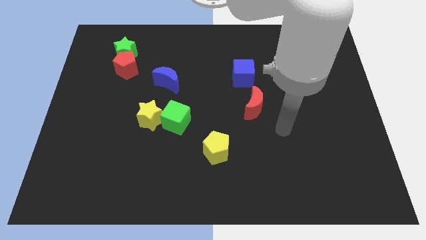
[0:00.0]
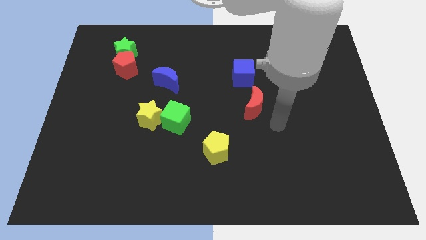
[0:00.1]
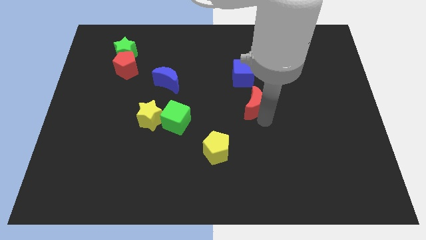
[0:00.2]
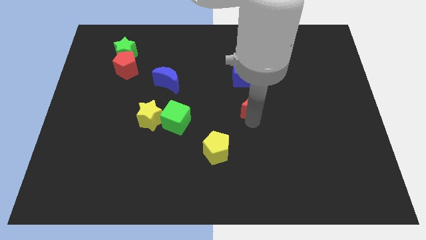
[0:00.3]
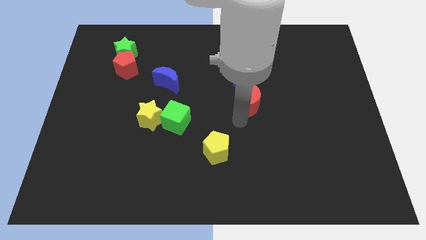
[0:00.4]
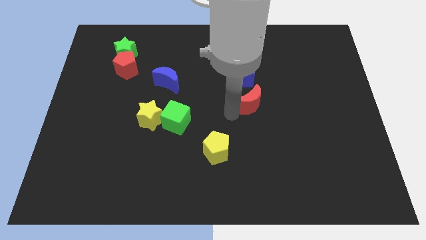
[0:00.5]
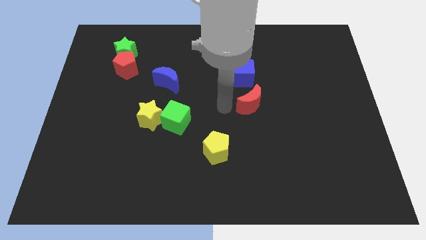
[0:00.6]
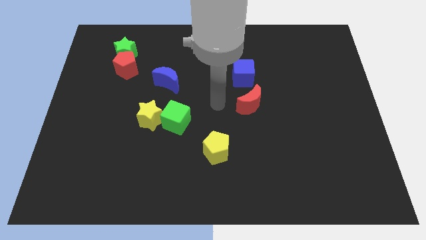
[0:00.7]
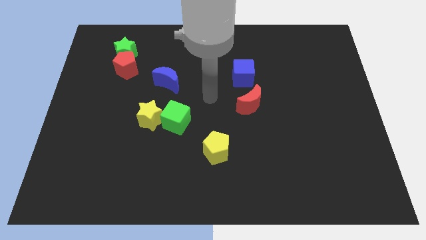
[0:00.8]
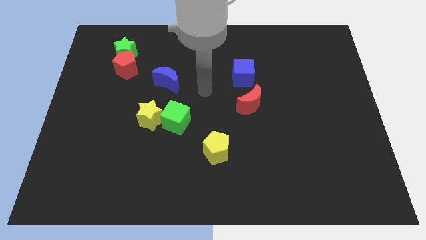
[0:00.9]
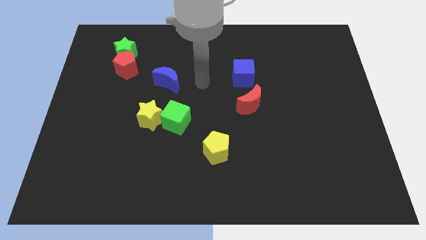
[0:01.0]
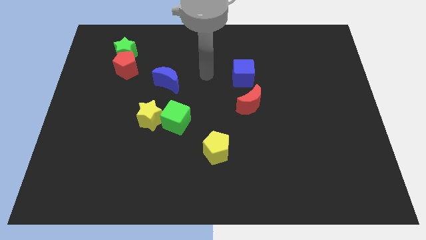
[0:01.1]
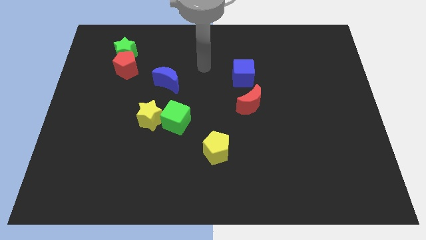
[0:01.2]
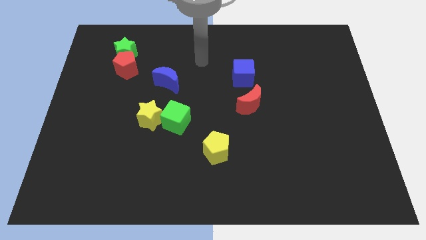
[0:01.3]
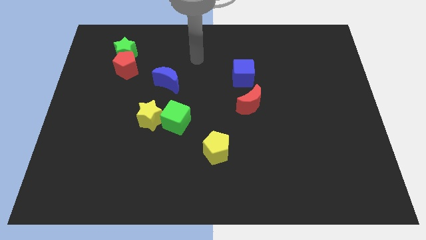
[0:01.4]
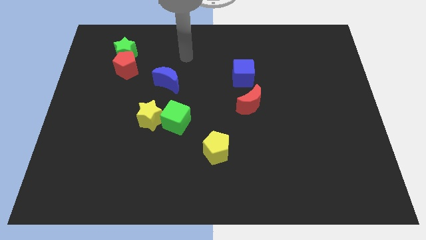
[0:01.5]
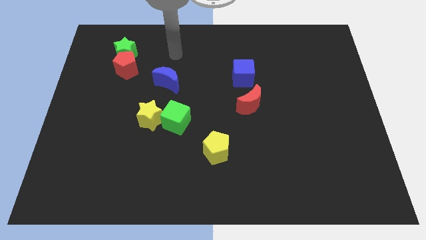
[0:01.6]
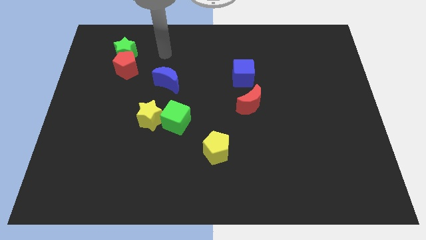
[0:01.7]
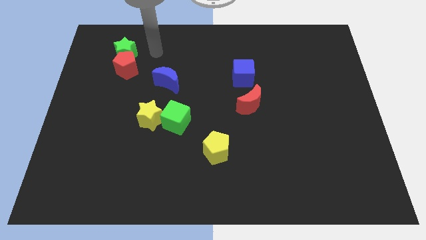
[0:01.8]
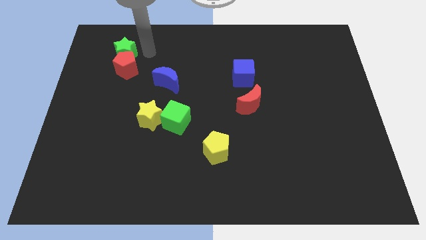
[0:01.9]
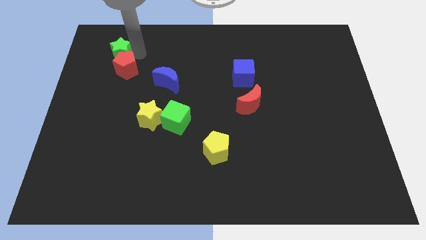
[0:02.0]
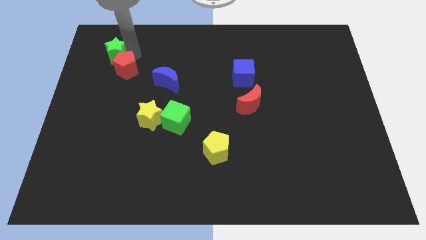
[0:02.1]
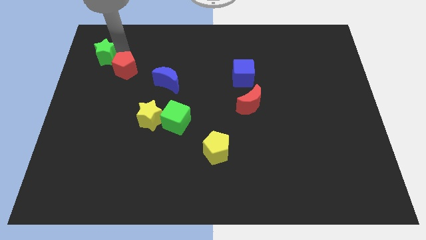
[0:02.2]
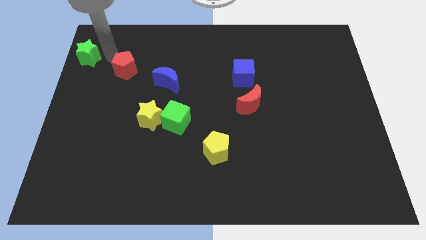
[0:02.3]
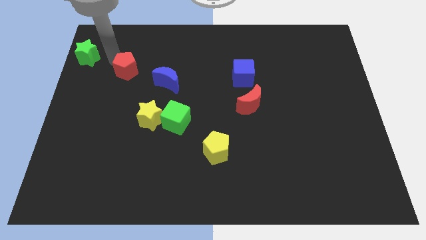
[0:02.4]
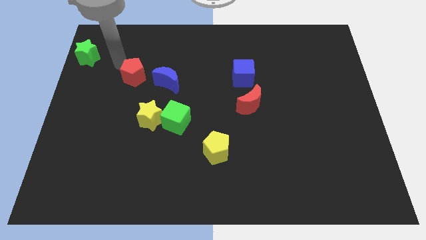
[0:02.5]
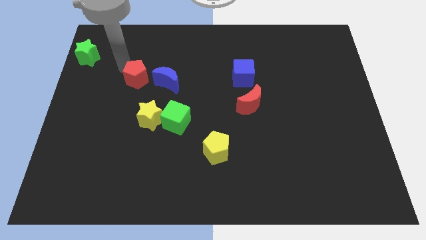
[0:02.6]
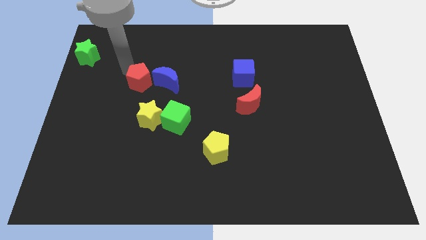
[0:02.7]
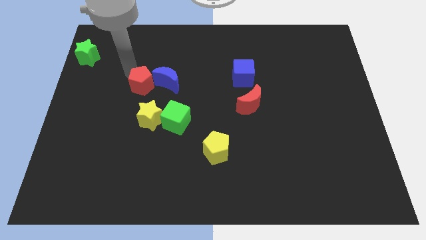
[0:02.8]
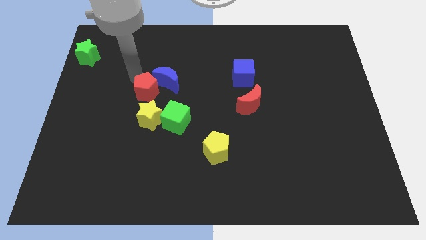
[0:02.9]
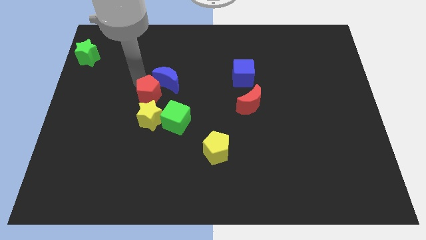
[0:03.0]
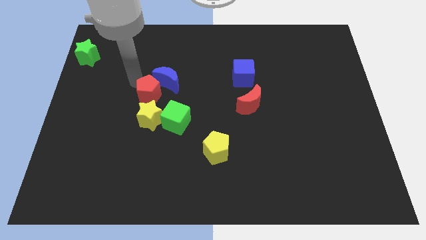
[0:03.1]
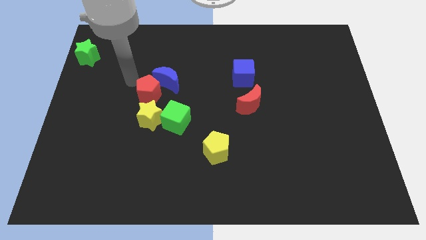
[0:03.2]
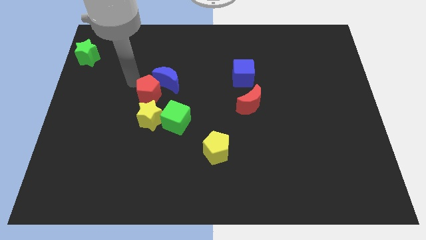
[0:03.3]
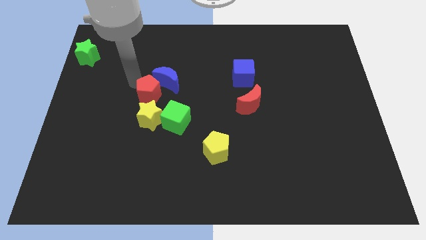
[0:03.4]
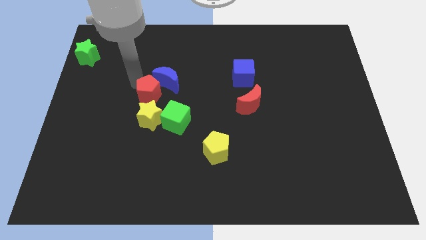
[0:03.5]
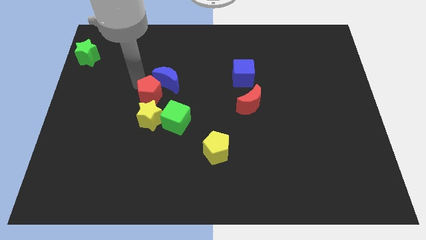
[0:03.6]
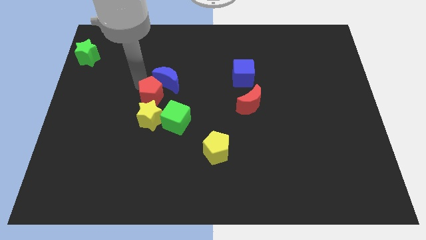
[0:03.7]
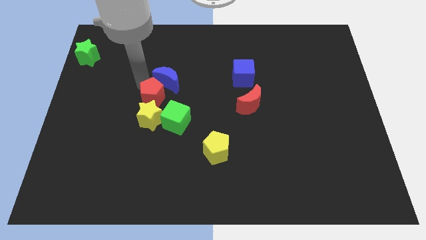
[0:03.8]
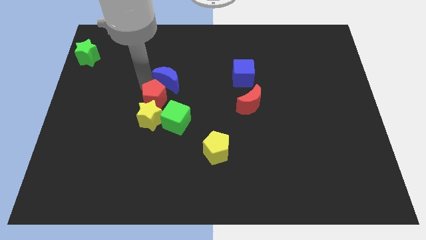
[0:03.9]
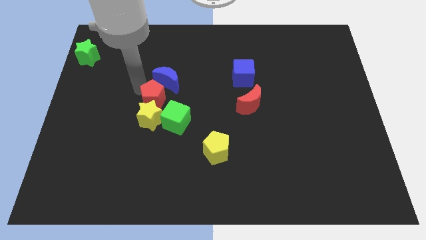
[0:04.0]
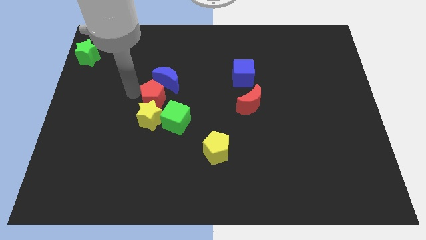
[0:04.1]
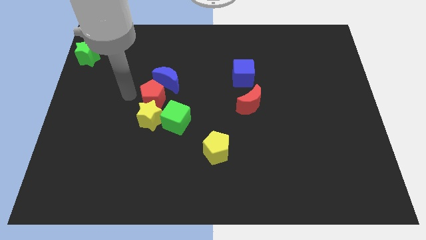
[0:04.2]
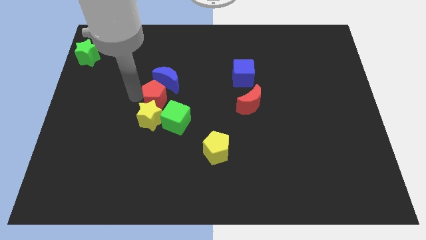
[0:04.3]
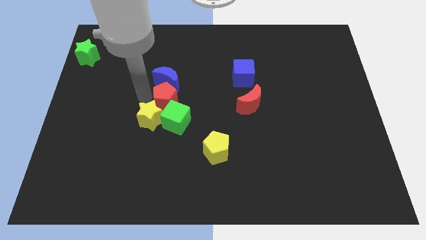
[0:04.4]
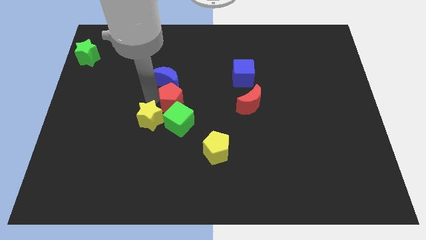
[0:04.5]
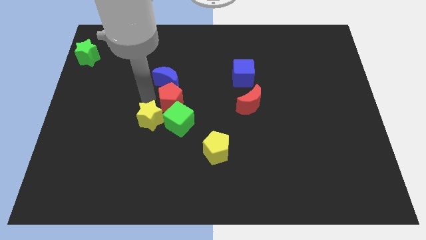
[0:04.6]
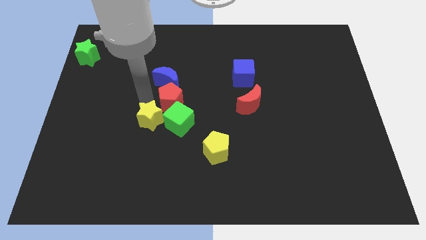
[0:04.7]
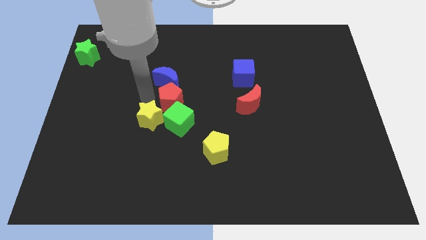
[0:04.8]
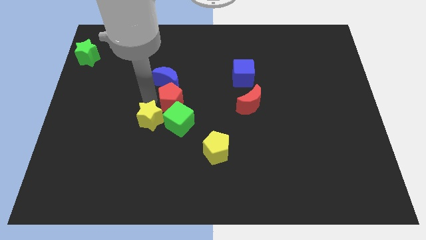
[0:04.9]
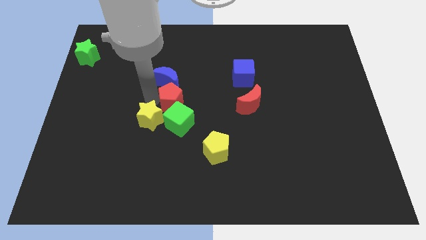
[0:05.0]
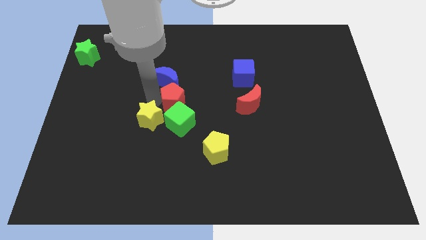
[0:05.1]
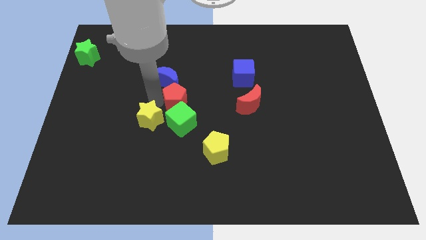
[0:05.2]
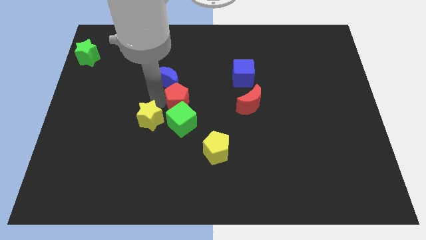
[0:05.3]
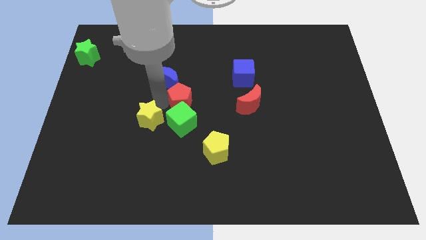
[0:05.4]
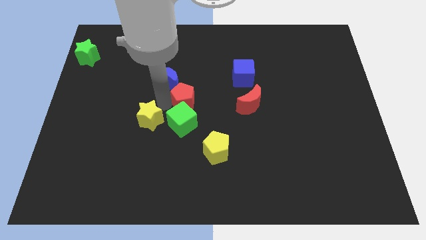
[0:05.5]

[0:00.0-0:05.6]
push the red pentagon just left of the red moon

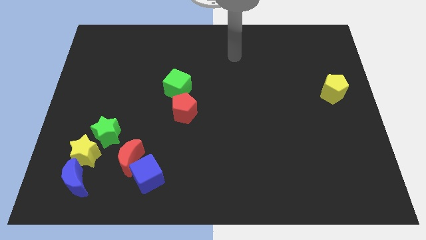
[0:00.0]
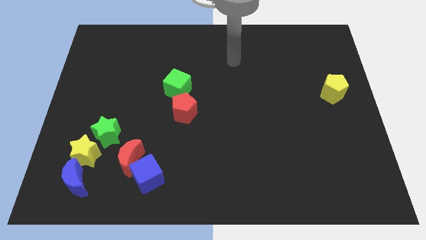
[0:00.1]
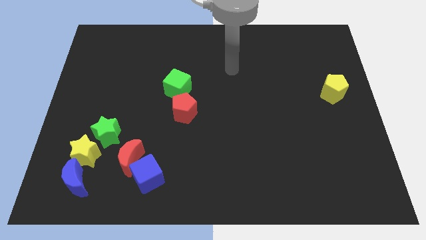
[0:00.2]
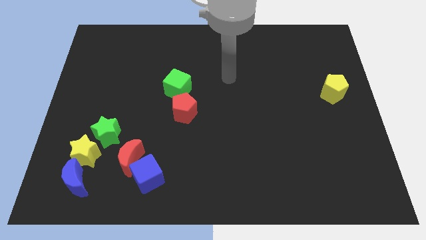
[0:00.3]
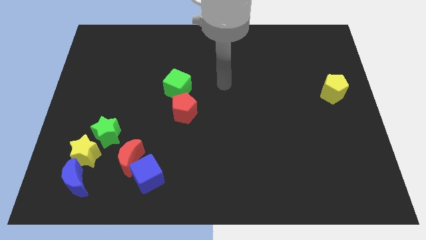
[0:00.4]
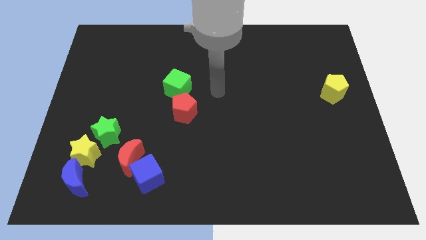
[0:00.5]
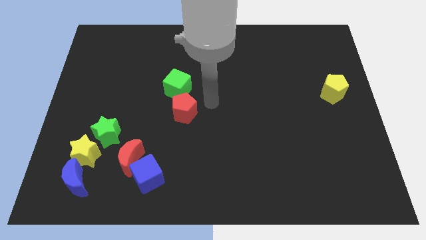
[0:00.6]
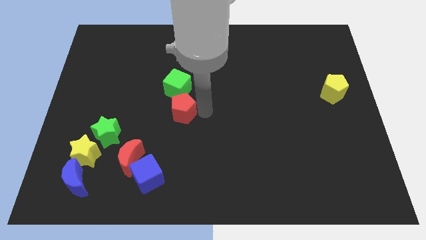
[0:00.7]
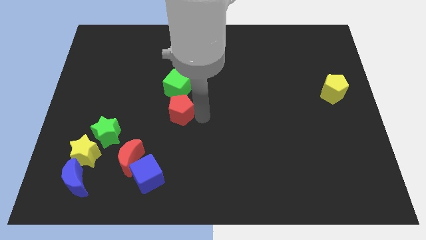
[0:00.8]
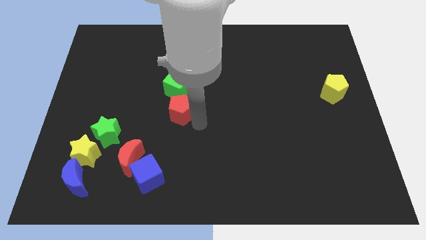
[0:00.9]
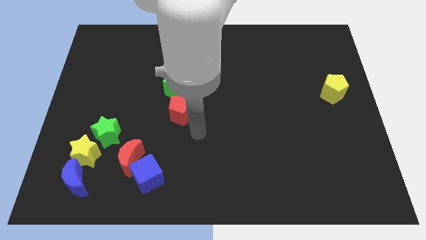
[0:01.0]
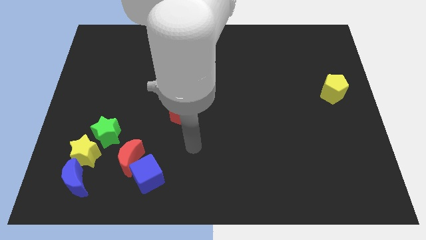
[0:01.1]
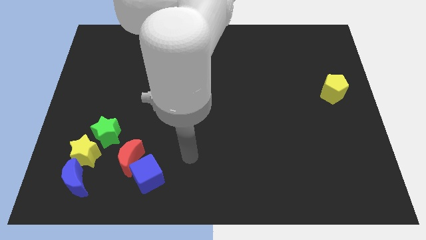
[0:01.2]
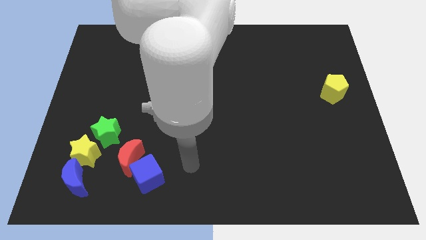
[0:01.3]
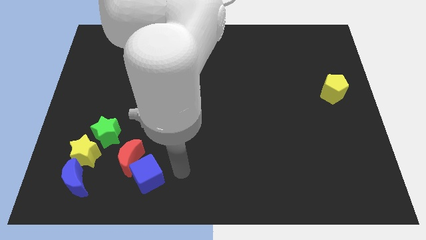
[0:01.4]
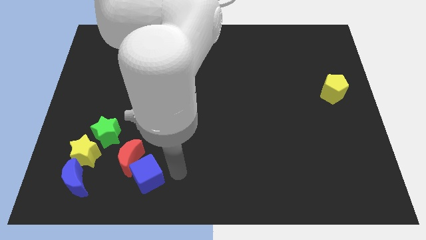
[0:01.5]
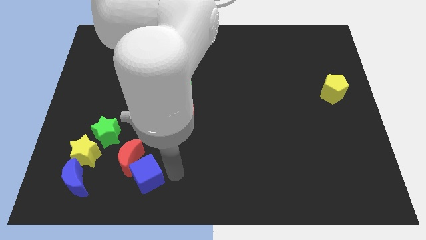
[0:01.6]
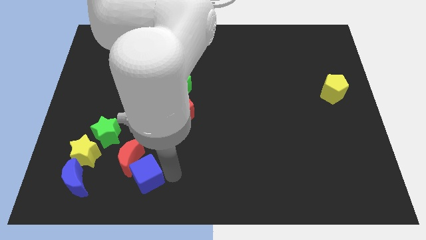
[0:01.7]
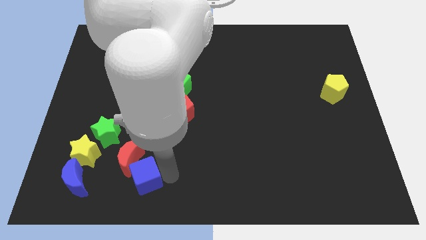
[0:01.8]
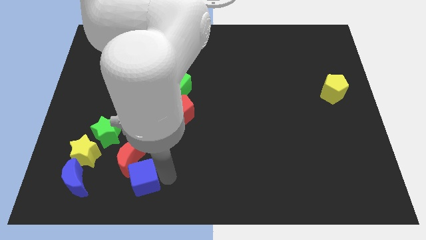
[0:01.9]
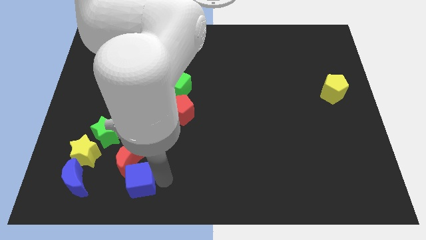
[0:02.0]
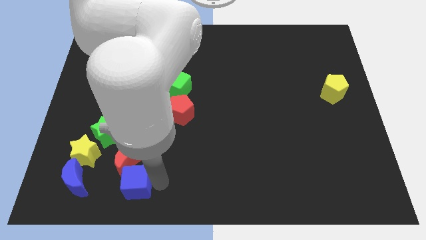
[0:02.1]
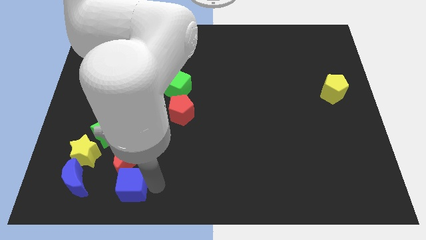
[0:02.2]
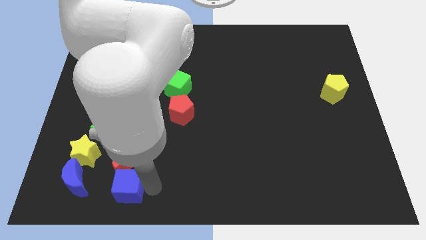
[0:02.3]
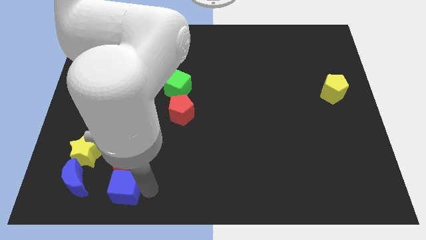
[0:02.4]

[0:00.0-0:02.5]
push the blue cube diagonally down and to the left of the red moon

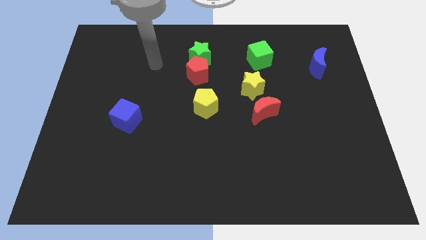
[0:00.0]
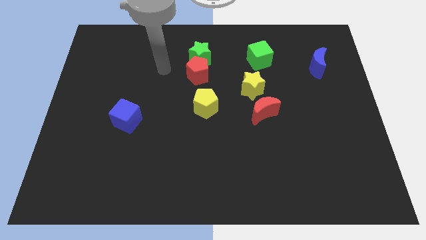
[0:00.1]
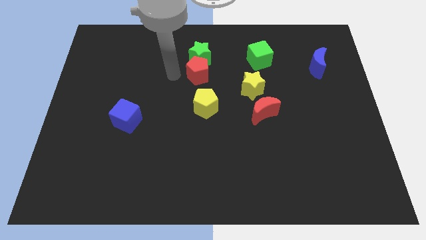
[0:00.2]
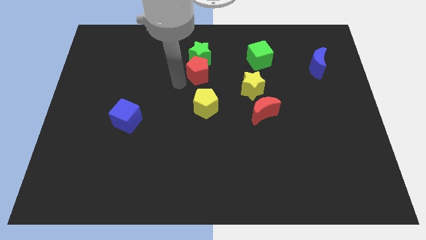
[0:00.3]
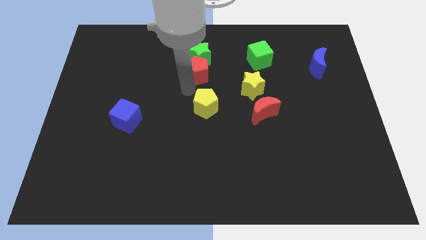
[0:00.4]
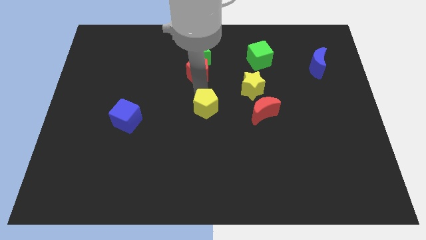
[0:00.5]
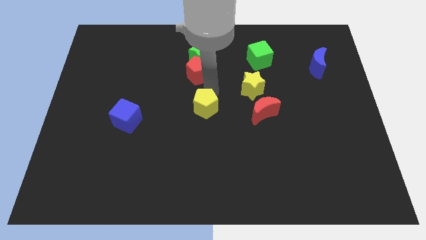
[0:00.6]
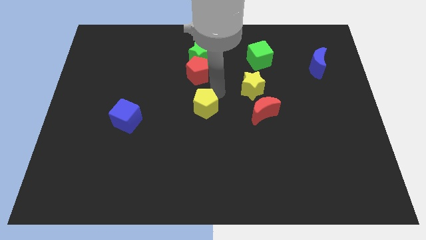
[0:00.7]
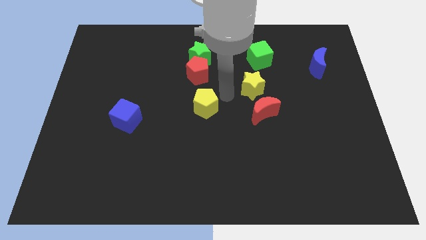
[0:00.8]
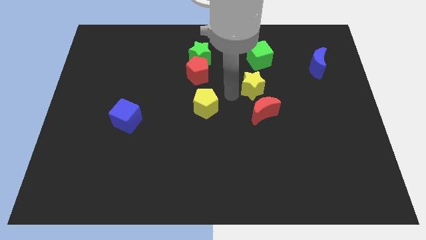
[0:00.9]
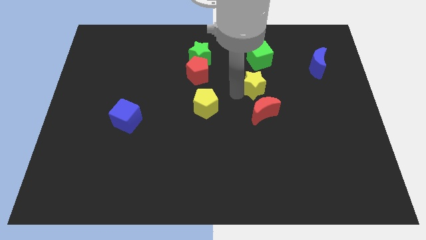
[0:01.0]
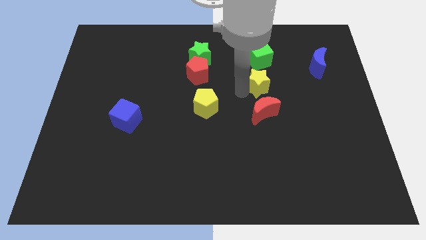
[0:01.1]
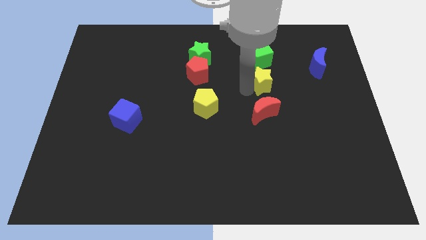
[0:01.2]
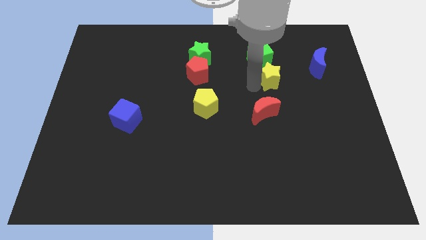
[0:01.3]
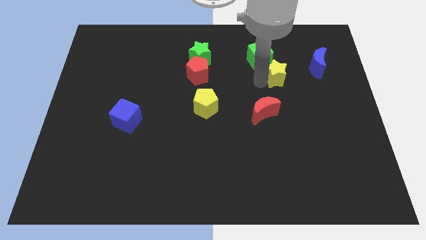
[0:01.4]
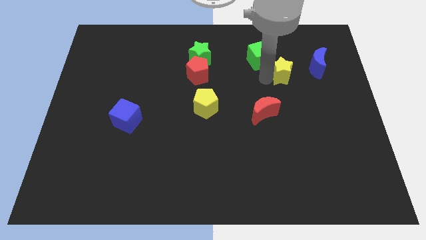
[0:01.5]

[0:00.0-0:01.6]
slide the yellow star to the bottom left side of the blue moon
